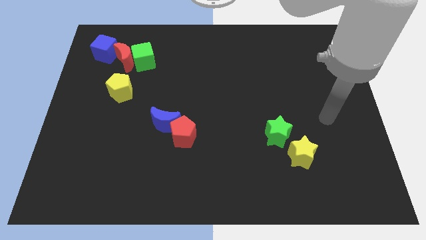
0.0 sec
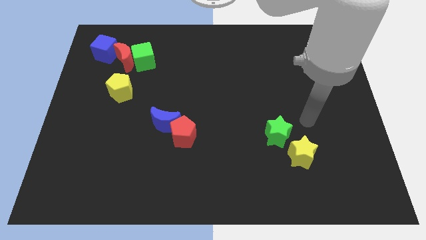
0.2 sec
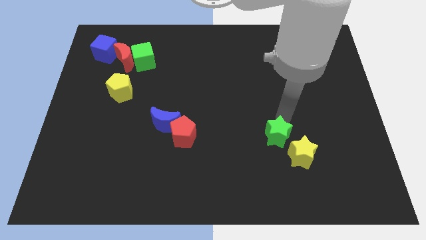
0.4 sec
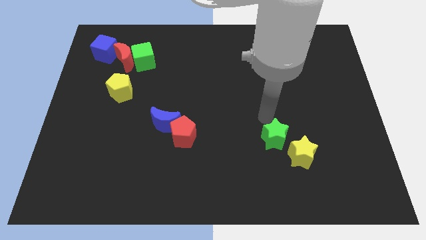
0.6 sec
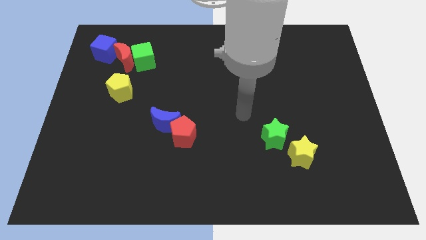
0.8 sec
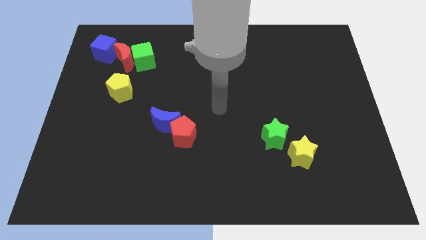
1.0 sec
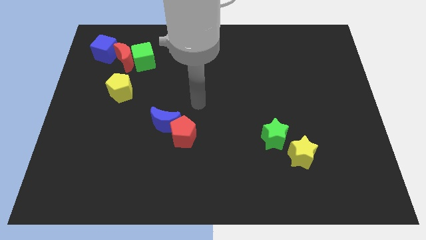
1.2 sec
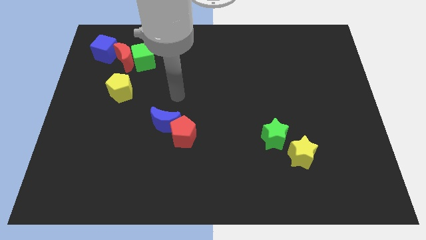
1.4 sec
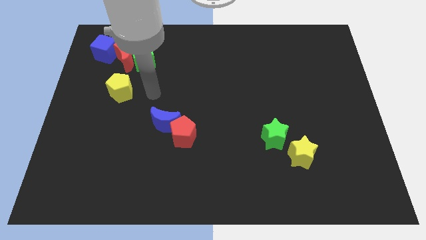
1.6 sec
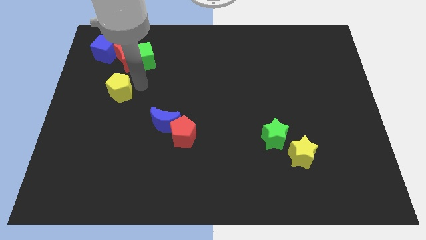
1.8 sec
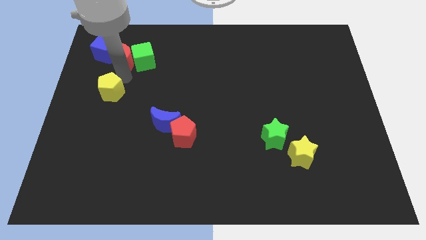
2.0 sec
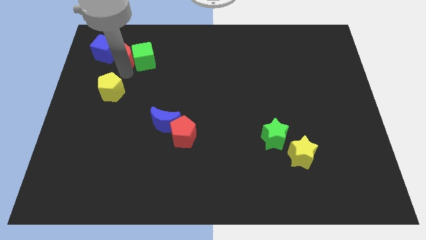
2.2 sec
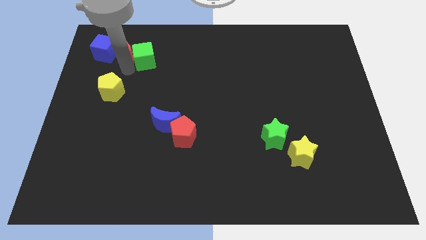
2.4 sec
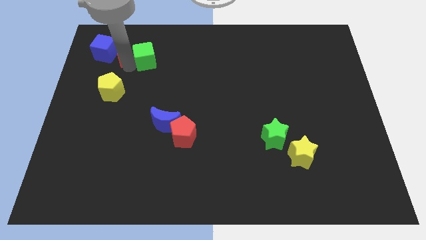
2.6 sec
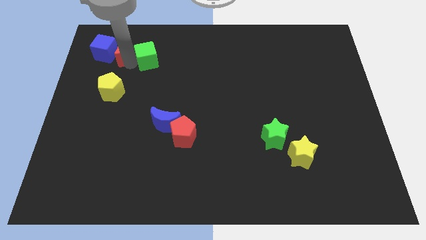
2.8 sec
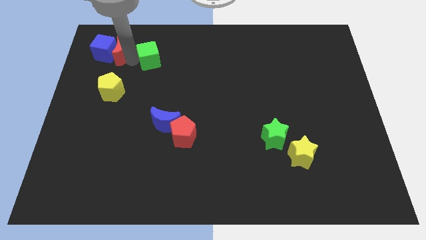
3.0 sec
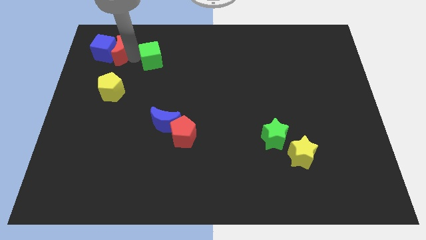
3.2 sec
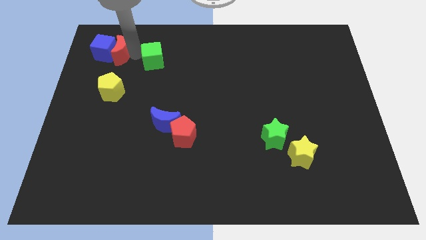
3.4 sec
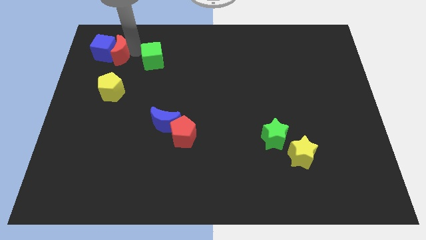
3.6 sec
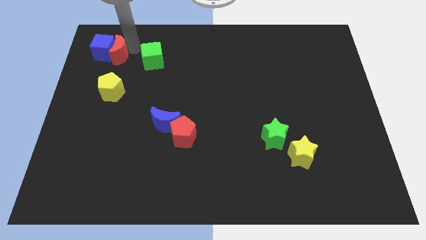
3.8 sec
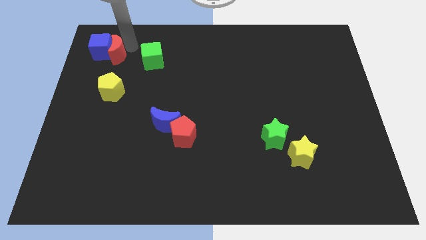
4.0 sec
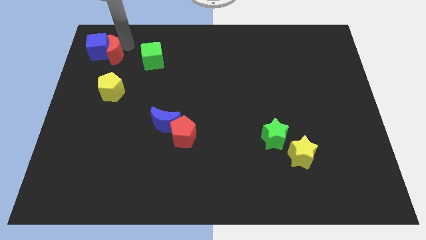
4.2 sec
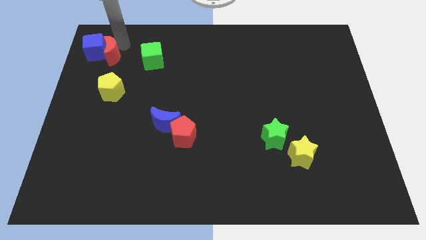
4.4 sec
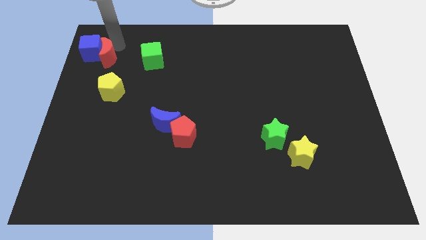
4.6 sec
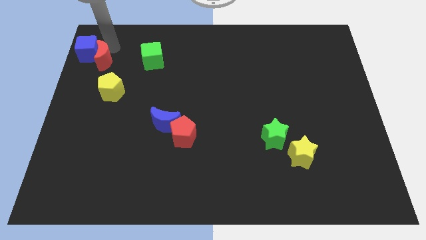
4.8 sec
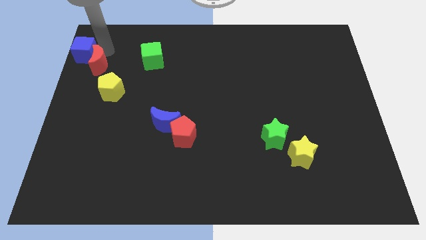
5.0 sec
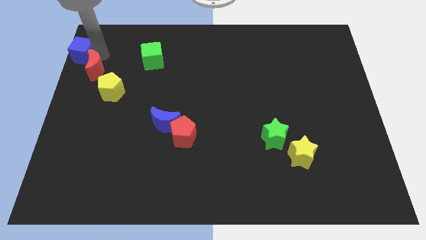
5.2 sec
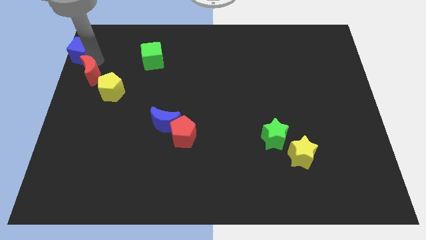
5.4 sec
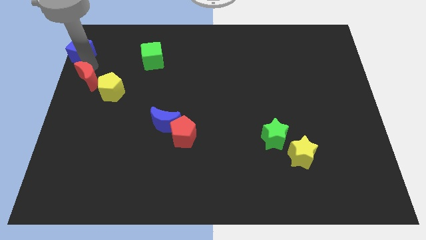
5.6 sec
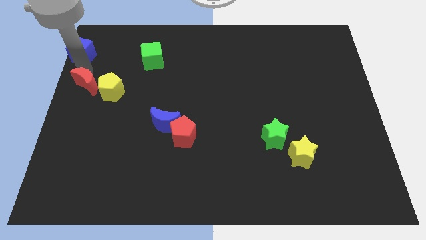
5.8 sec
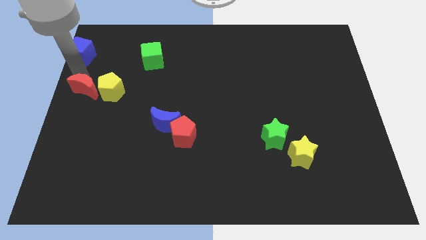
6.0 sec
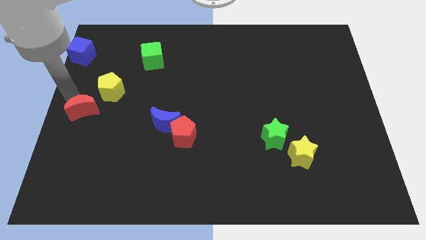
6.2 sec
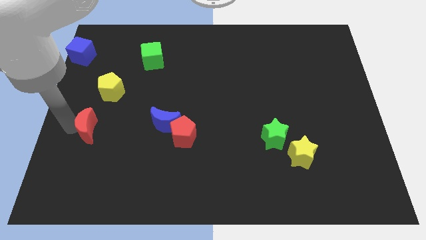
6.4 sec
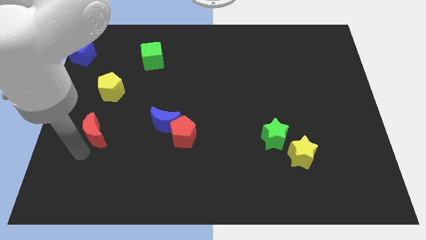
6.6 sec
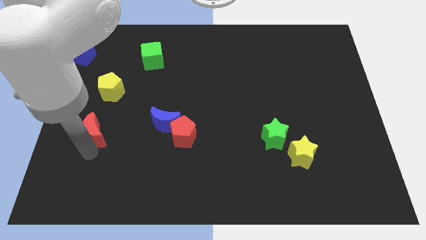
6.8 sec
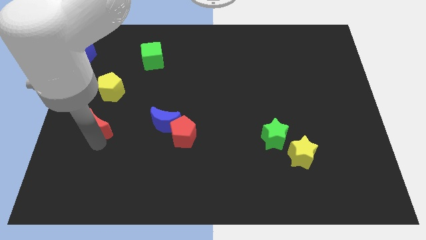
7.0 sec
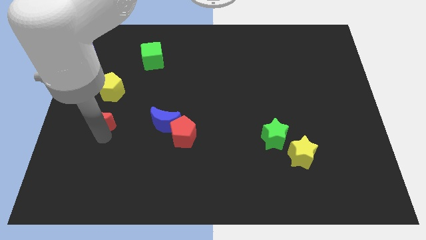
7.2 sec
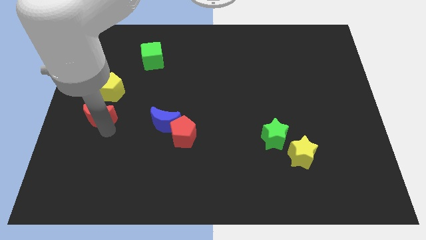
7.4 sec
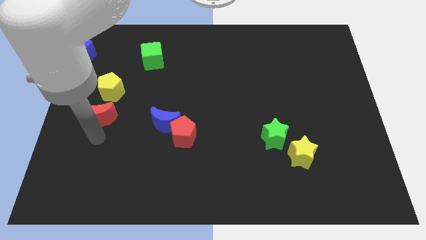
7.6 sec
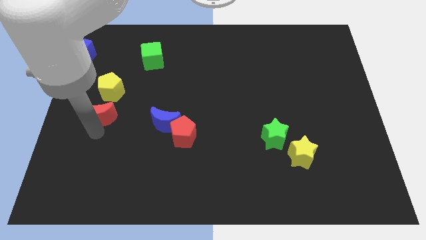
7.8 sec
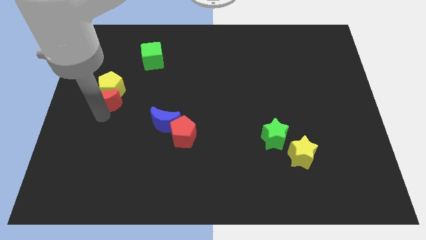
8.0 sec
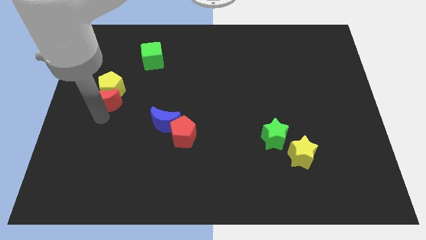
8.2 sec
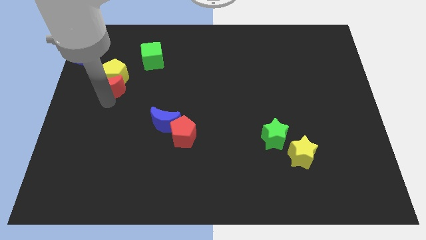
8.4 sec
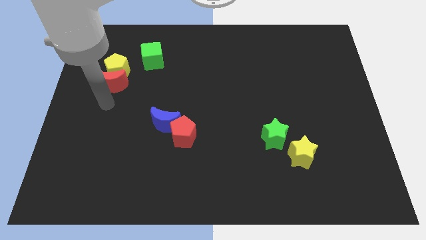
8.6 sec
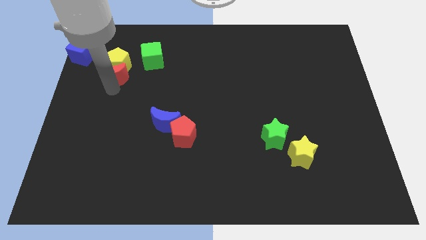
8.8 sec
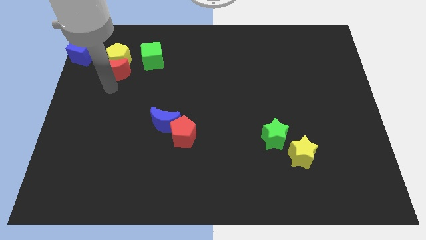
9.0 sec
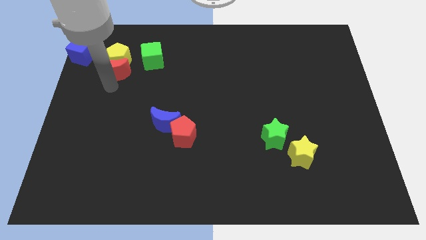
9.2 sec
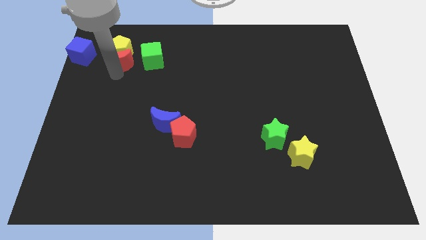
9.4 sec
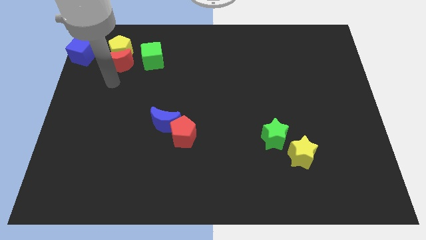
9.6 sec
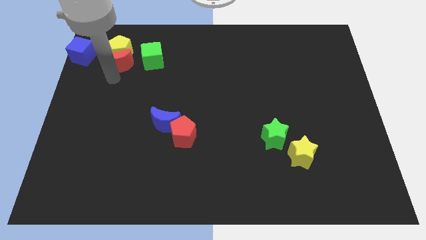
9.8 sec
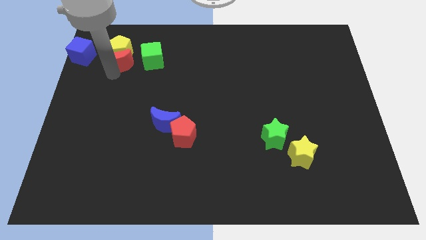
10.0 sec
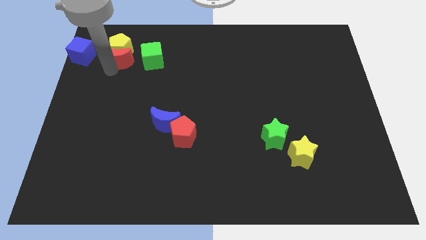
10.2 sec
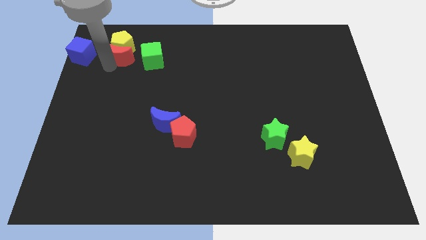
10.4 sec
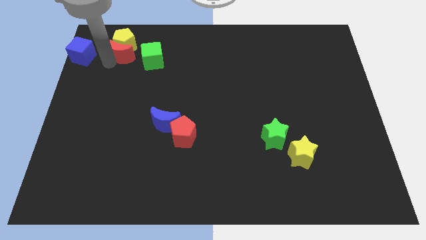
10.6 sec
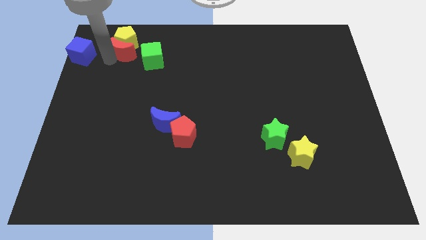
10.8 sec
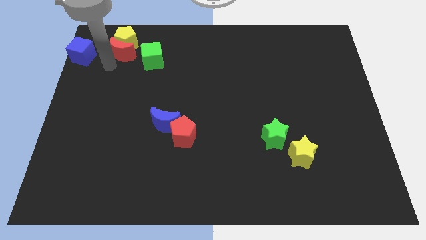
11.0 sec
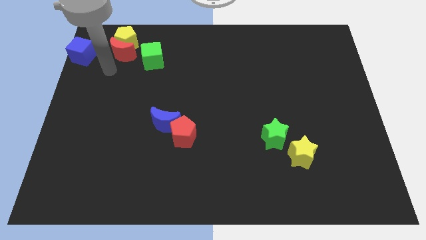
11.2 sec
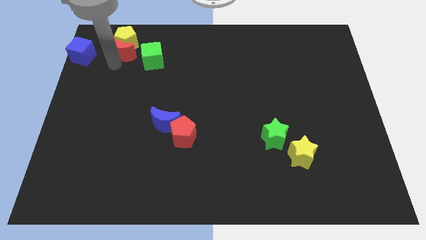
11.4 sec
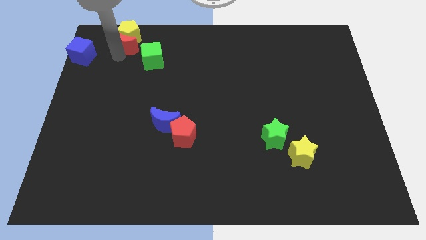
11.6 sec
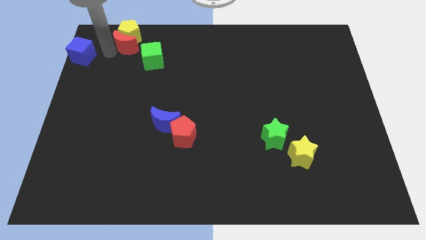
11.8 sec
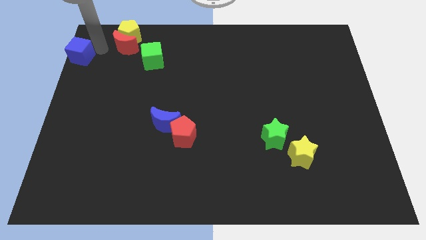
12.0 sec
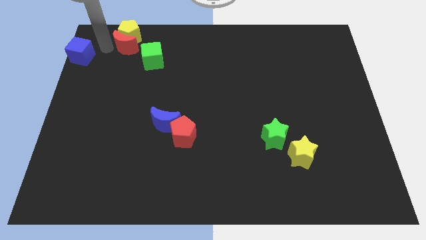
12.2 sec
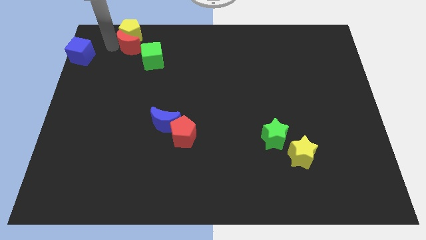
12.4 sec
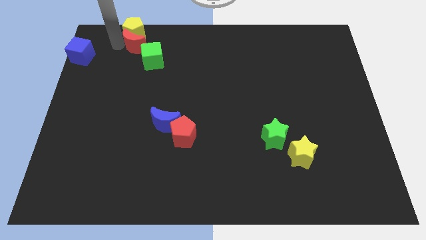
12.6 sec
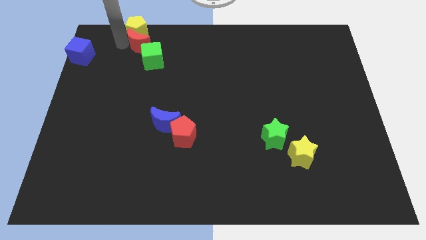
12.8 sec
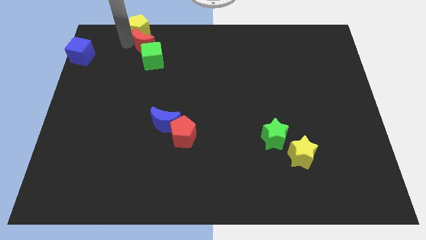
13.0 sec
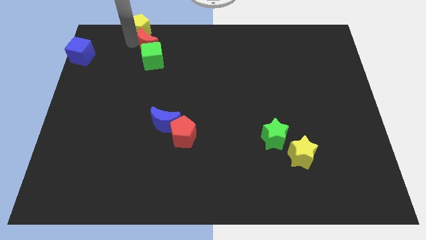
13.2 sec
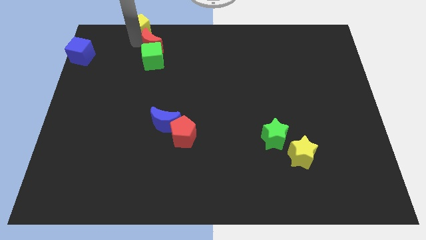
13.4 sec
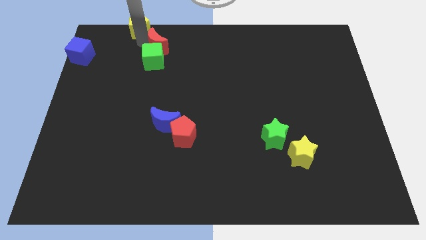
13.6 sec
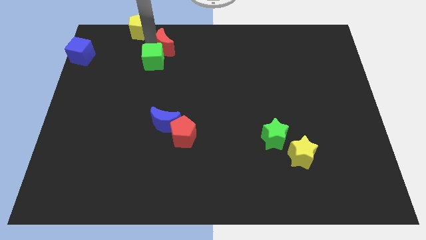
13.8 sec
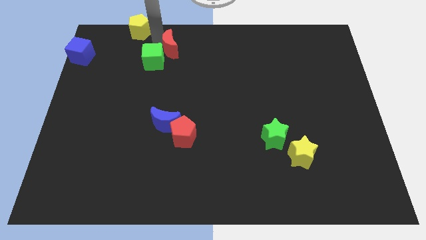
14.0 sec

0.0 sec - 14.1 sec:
move the red moon just right of the green cube
